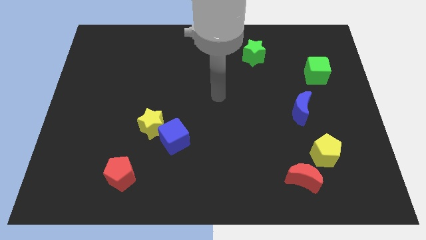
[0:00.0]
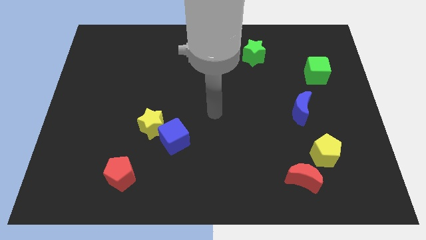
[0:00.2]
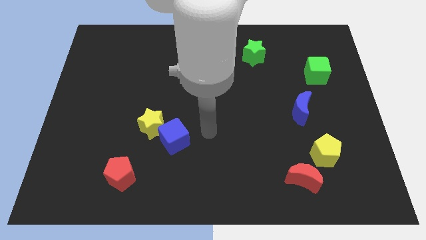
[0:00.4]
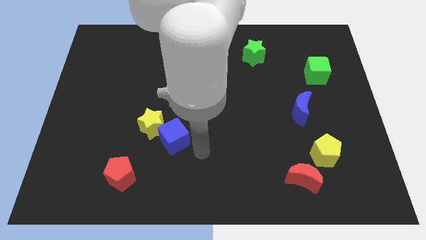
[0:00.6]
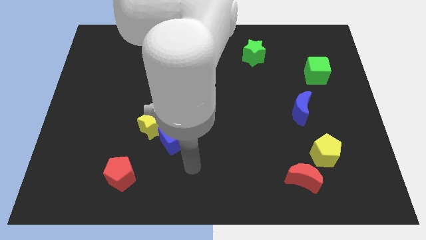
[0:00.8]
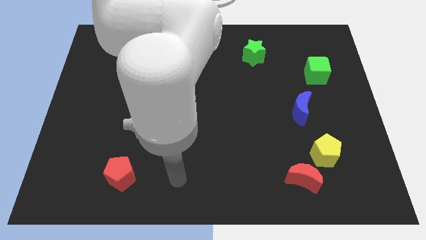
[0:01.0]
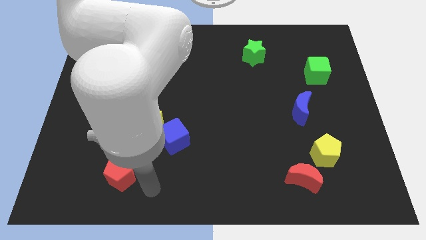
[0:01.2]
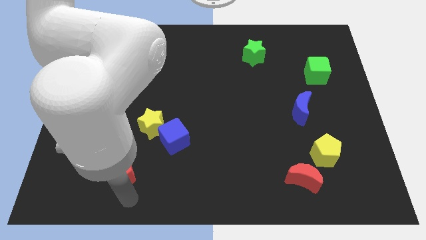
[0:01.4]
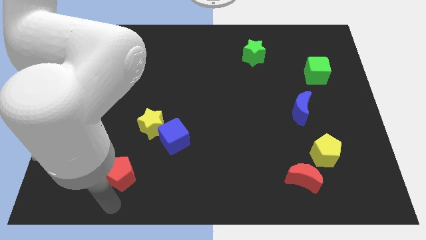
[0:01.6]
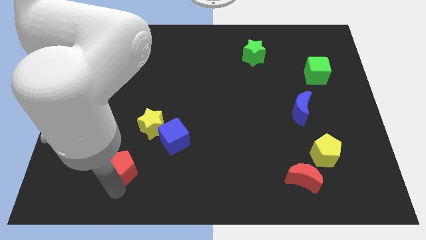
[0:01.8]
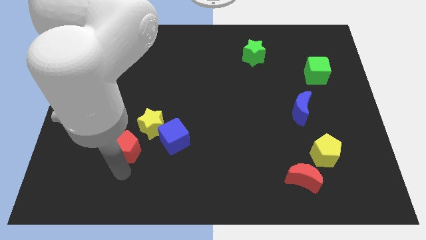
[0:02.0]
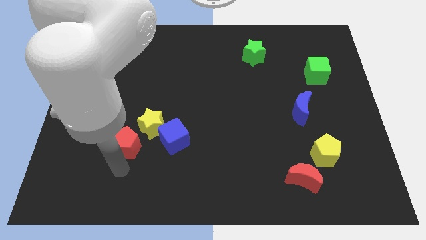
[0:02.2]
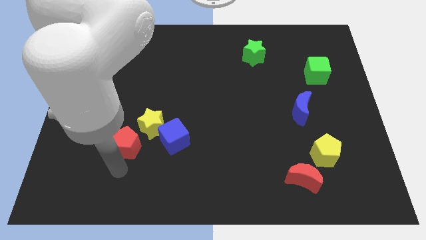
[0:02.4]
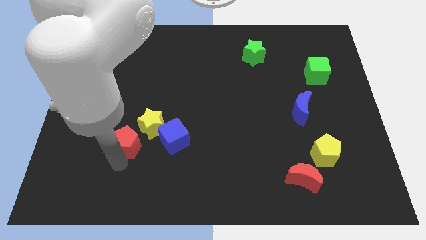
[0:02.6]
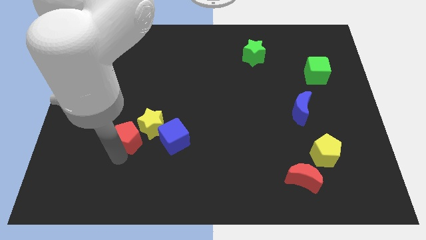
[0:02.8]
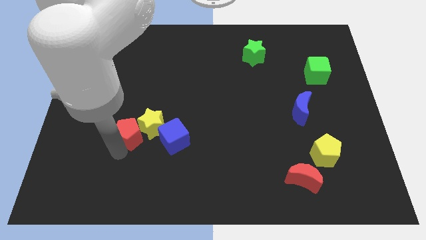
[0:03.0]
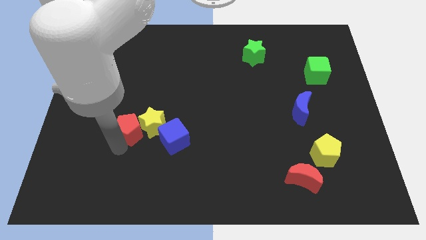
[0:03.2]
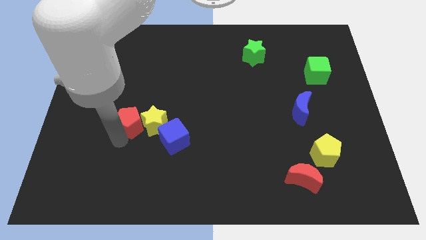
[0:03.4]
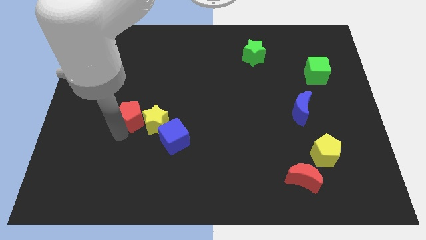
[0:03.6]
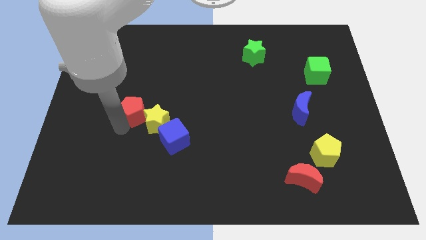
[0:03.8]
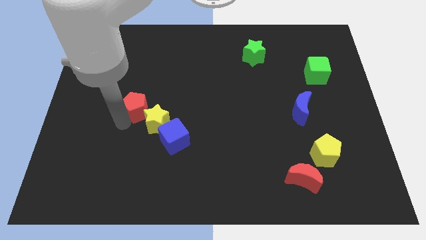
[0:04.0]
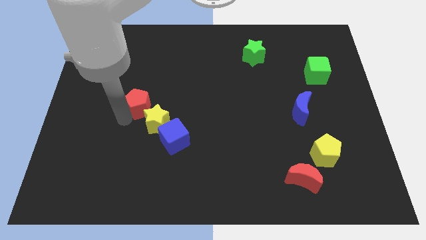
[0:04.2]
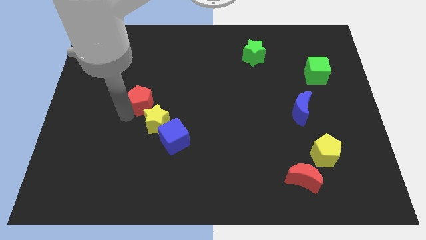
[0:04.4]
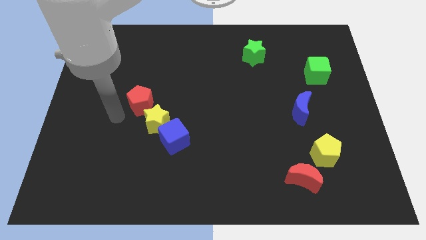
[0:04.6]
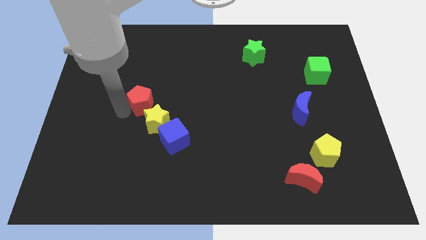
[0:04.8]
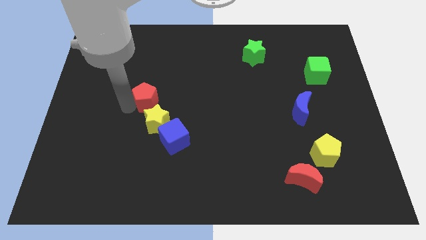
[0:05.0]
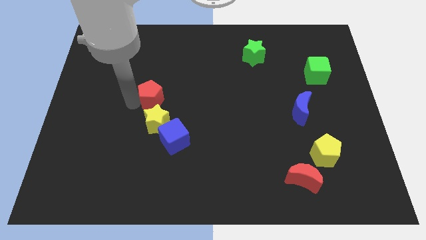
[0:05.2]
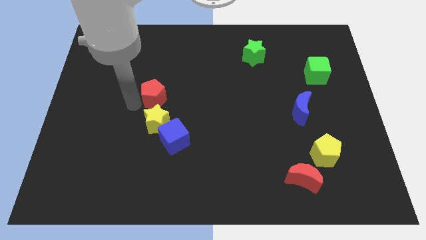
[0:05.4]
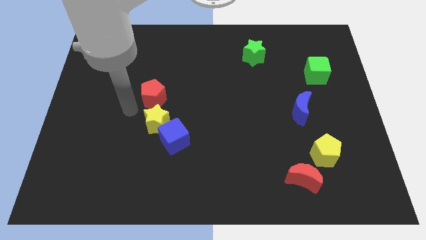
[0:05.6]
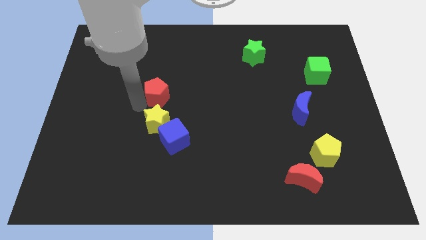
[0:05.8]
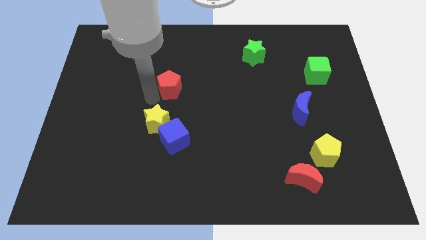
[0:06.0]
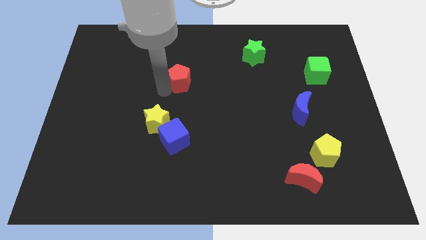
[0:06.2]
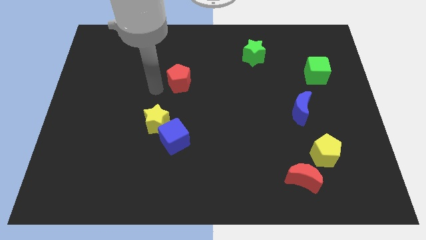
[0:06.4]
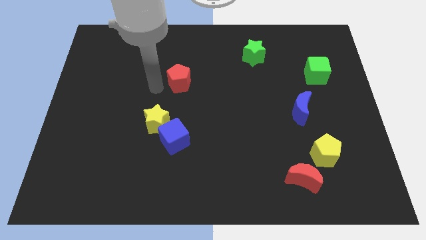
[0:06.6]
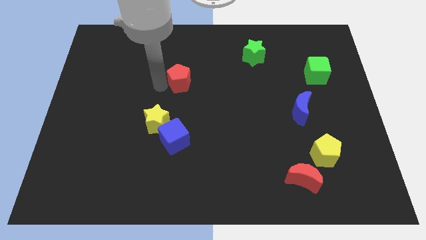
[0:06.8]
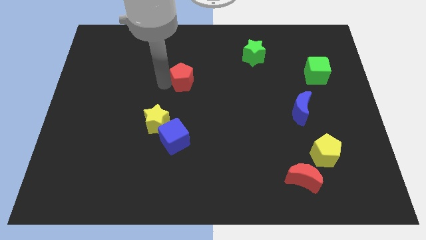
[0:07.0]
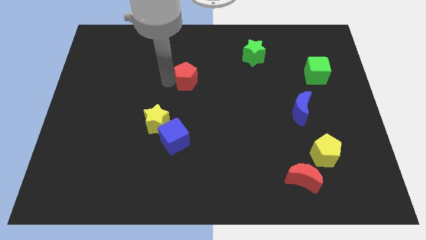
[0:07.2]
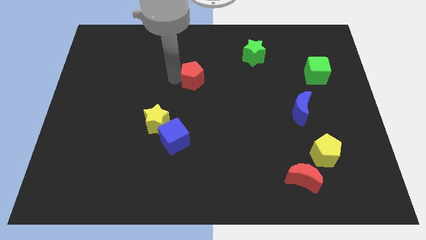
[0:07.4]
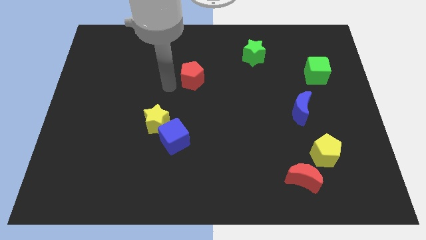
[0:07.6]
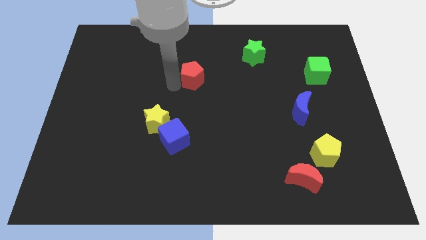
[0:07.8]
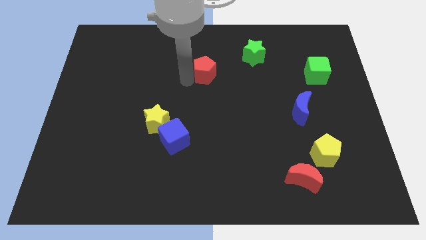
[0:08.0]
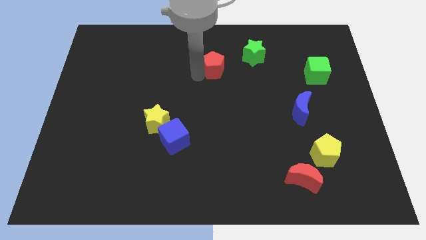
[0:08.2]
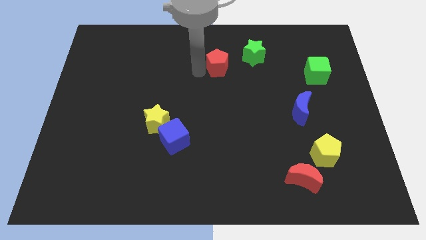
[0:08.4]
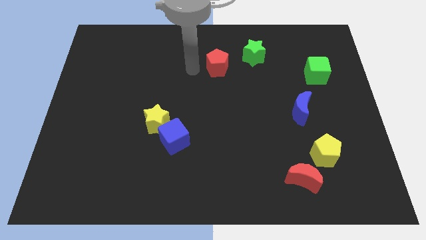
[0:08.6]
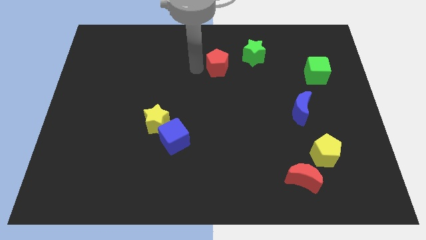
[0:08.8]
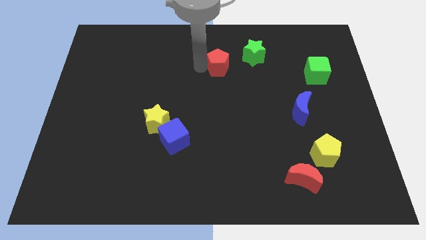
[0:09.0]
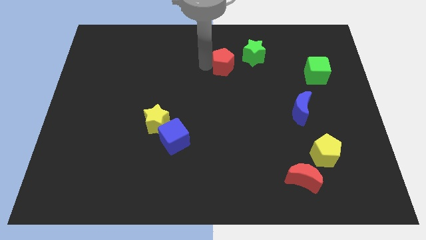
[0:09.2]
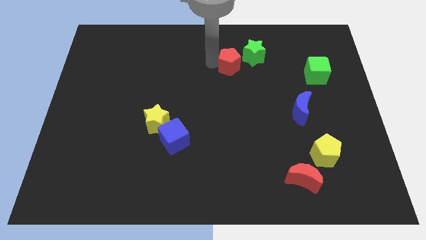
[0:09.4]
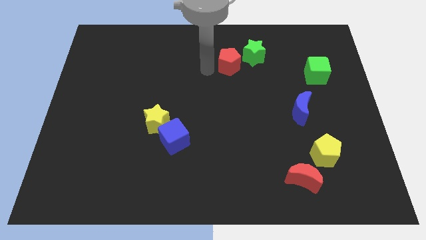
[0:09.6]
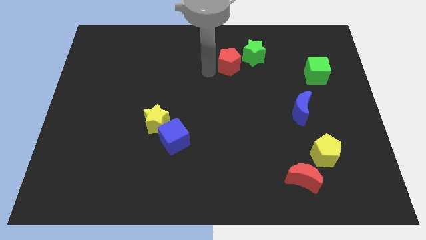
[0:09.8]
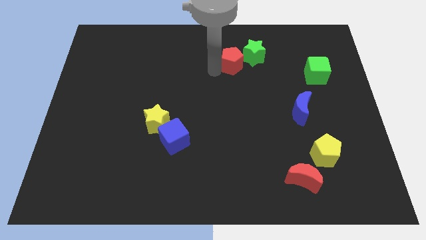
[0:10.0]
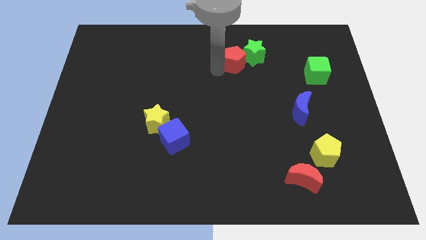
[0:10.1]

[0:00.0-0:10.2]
push the red pentagon to the green star

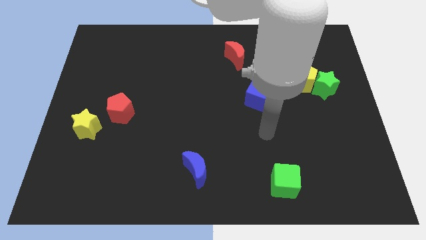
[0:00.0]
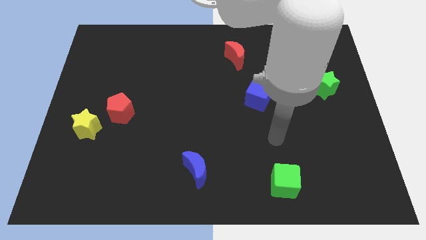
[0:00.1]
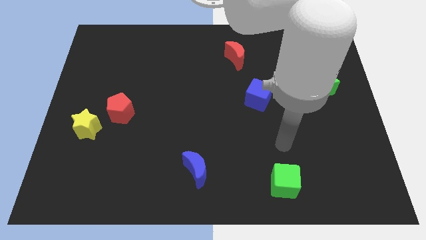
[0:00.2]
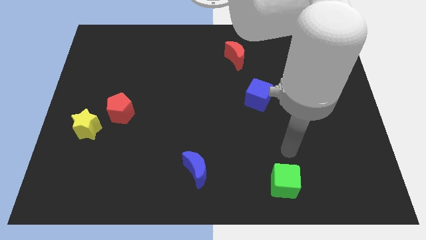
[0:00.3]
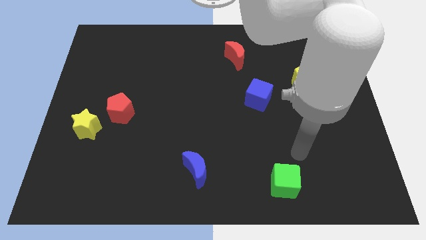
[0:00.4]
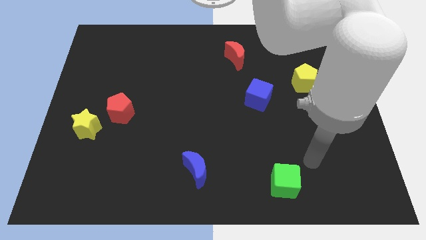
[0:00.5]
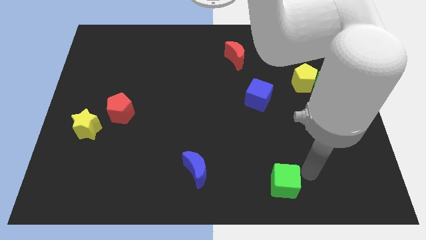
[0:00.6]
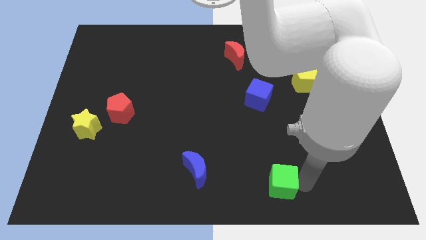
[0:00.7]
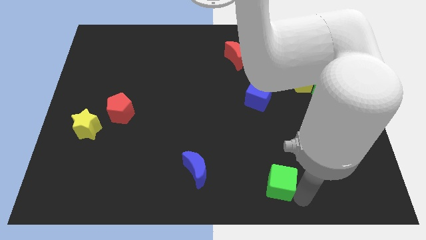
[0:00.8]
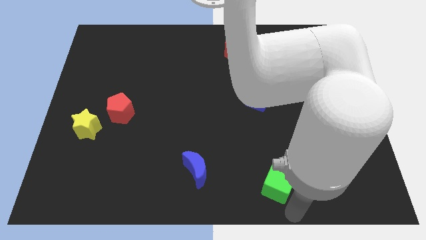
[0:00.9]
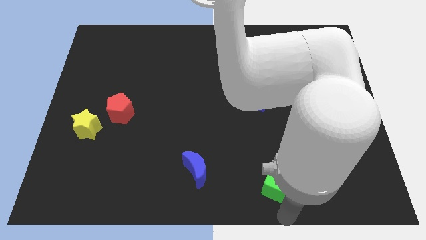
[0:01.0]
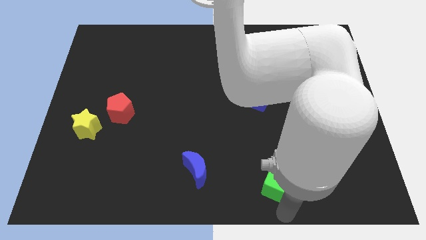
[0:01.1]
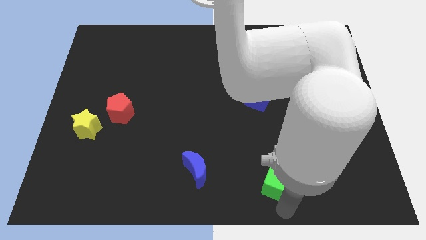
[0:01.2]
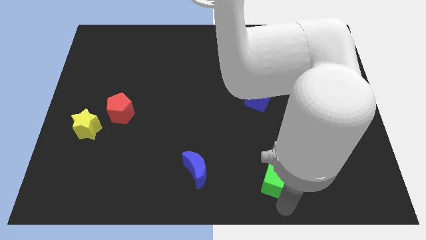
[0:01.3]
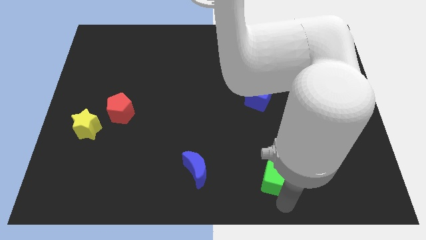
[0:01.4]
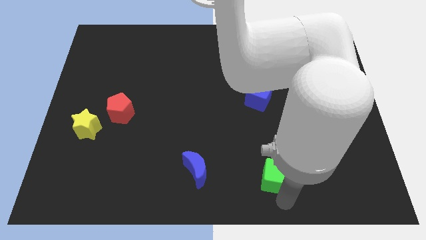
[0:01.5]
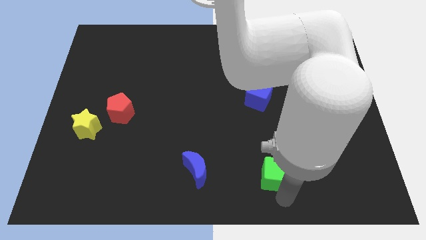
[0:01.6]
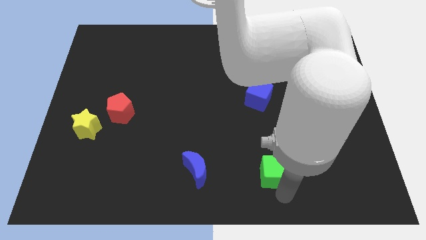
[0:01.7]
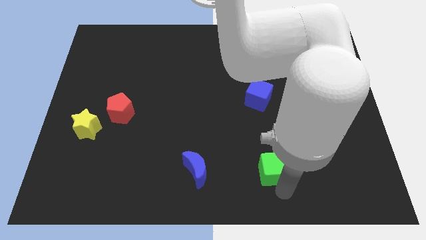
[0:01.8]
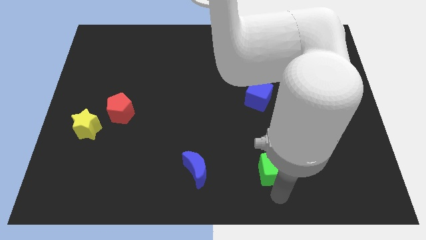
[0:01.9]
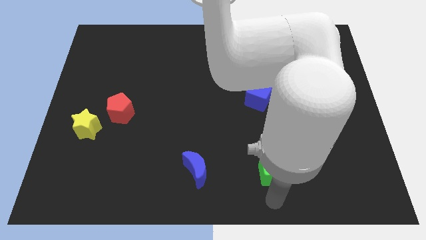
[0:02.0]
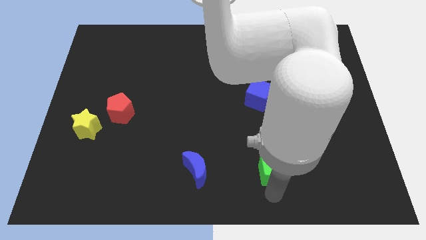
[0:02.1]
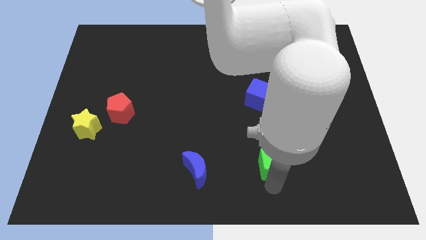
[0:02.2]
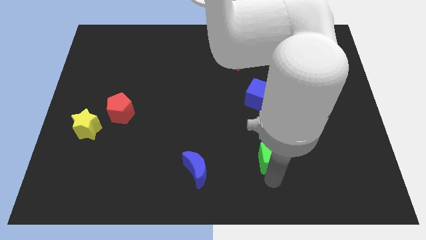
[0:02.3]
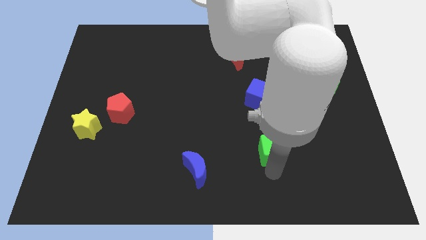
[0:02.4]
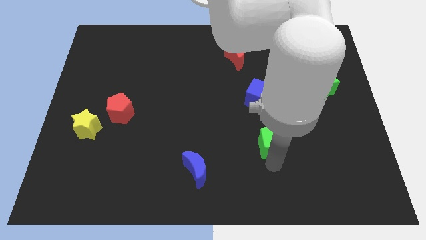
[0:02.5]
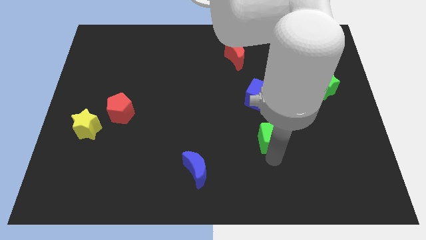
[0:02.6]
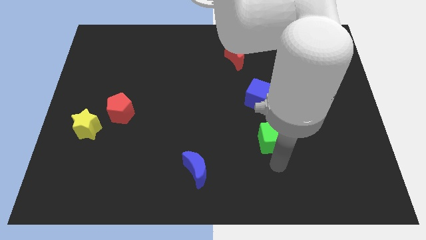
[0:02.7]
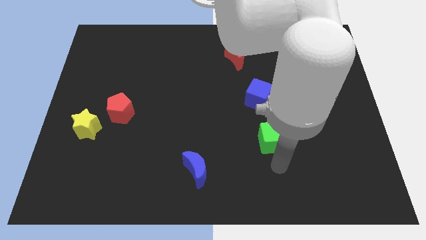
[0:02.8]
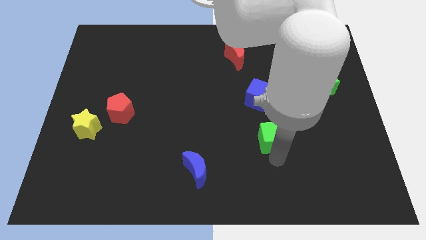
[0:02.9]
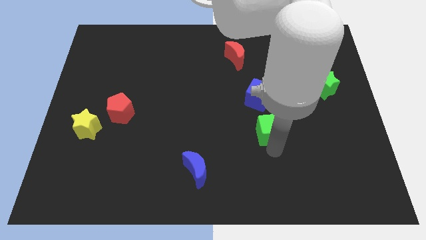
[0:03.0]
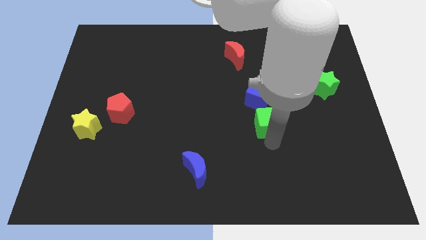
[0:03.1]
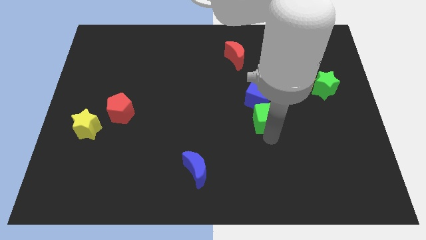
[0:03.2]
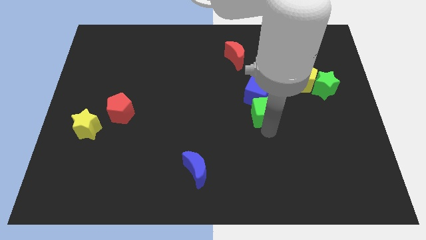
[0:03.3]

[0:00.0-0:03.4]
slide the green cube close to the blue cube
